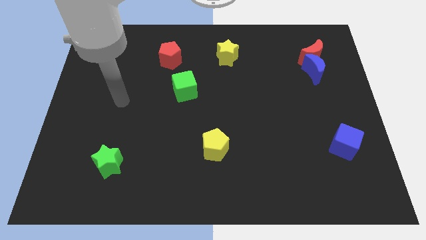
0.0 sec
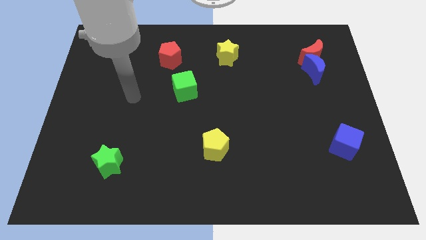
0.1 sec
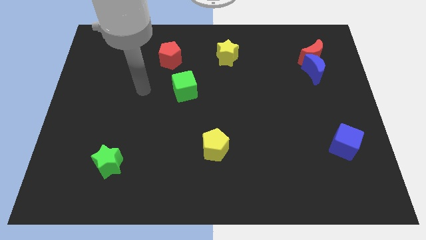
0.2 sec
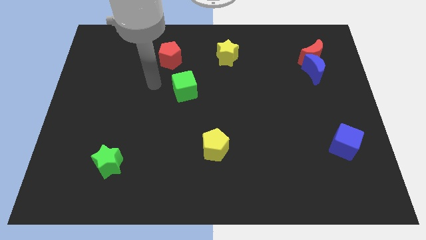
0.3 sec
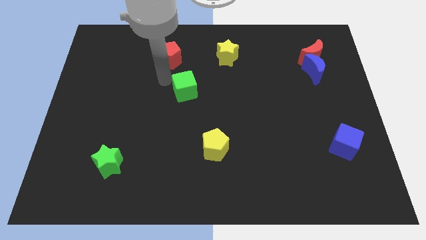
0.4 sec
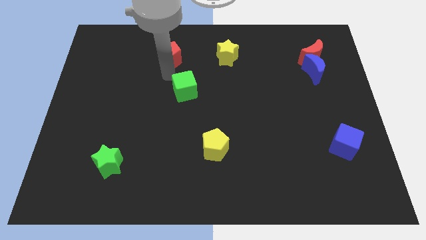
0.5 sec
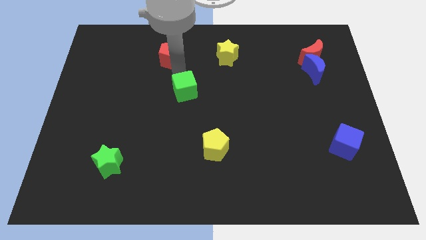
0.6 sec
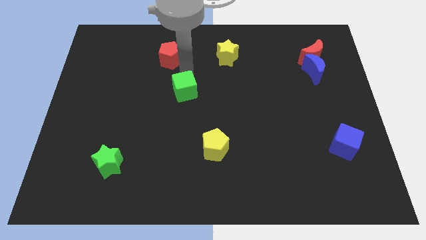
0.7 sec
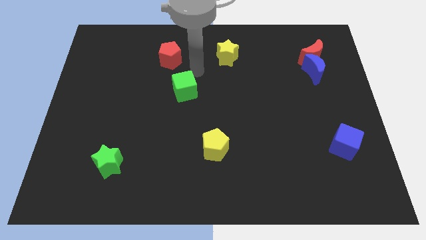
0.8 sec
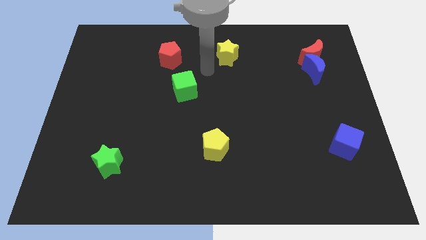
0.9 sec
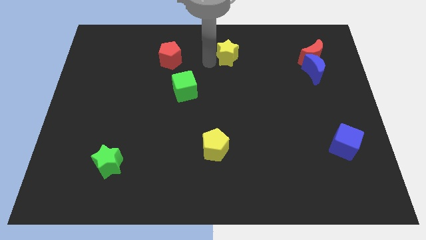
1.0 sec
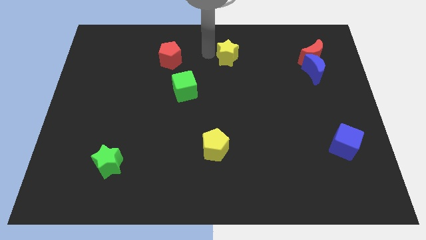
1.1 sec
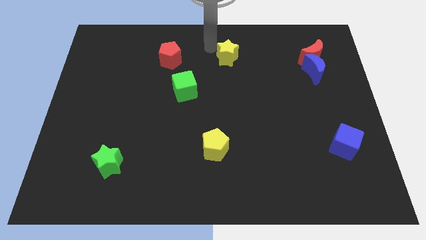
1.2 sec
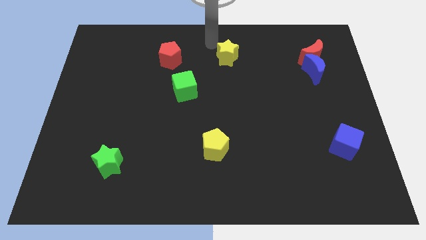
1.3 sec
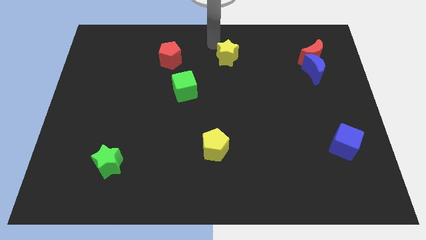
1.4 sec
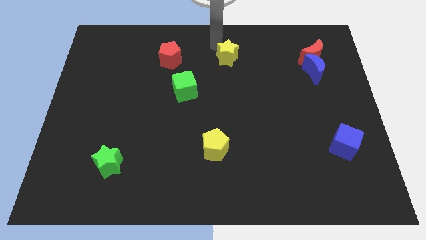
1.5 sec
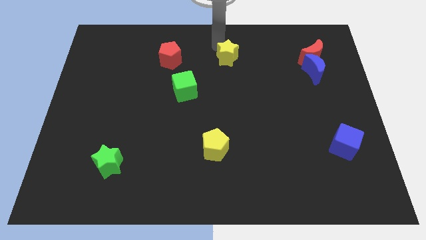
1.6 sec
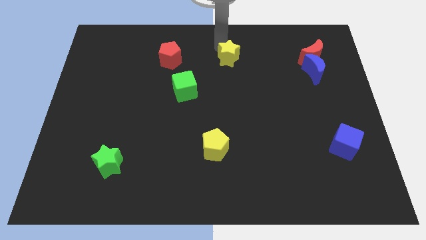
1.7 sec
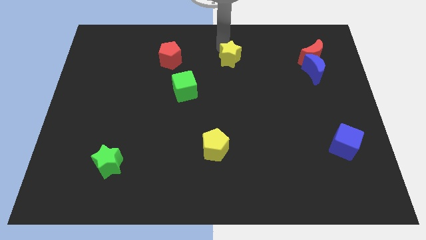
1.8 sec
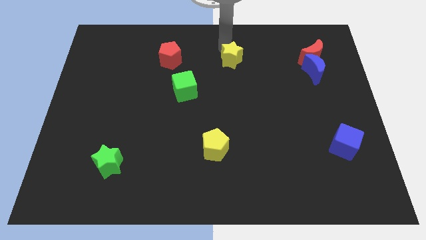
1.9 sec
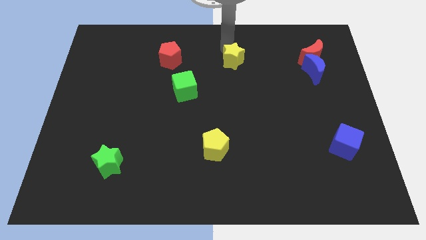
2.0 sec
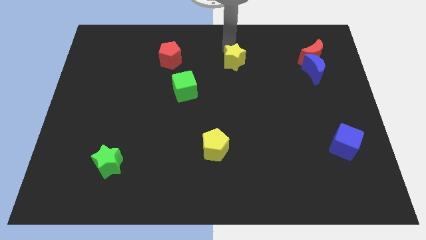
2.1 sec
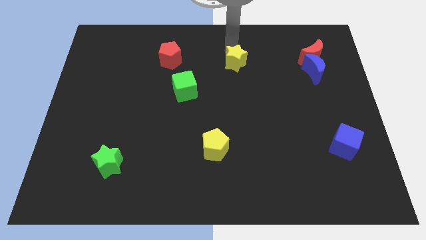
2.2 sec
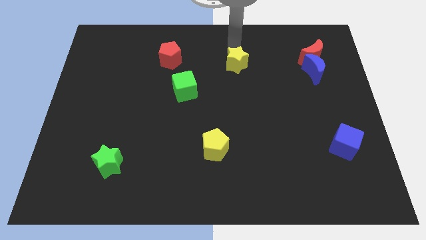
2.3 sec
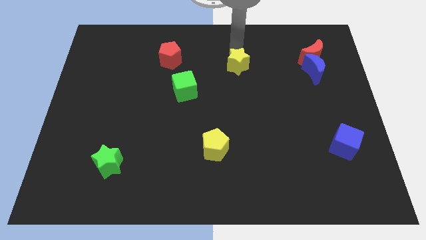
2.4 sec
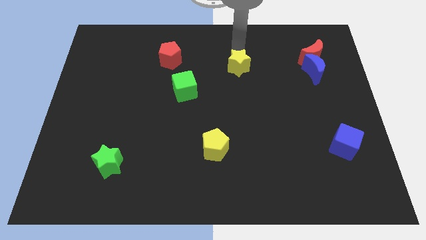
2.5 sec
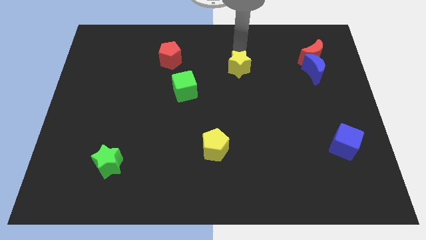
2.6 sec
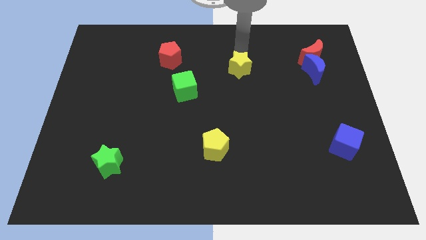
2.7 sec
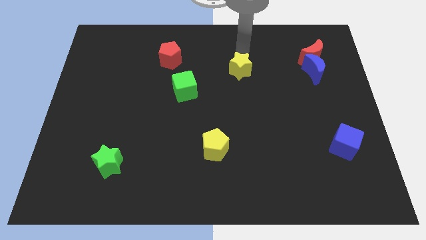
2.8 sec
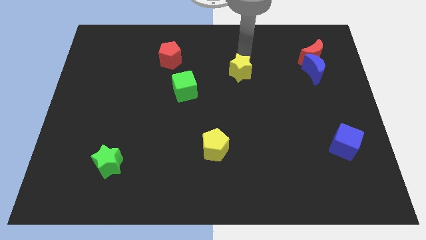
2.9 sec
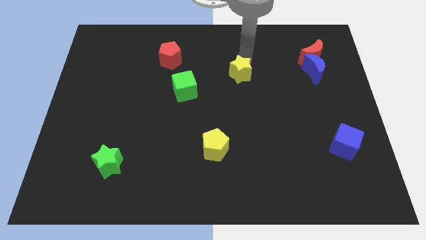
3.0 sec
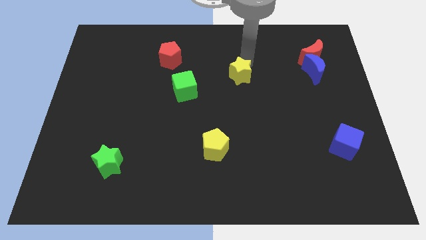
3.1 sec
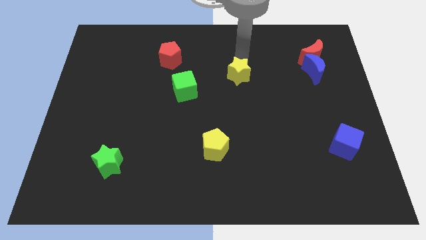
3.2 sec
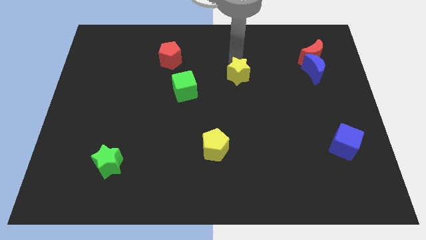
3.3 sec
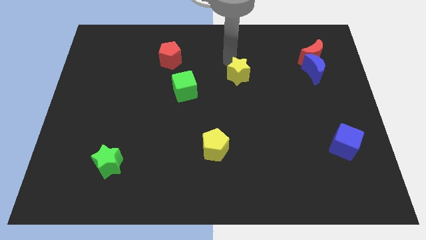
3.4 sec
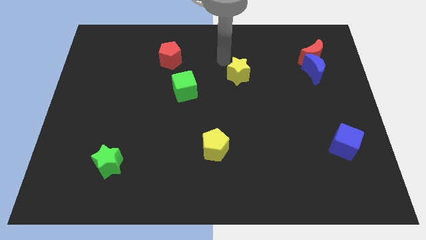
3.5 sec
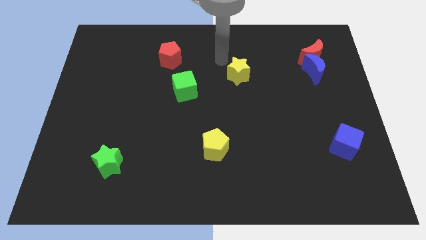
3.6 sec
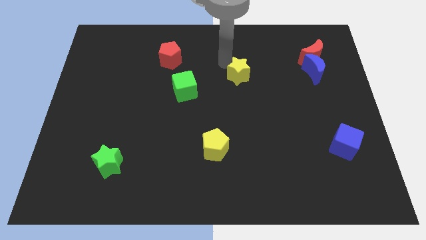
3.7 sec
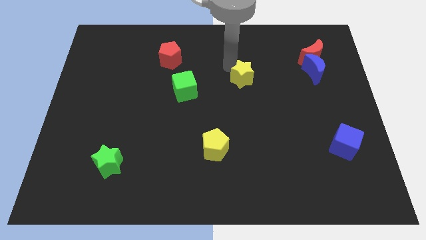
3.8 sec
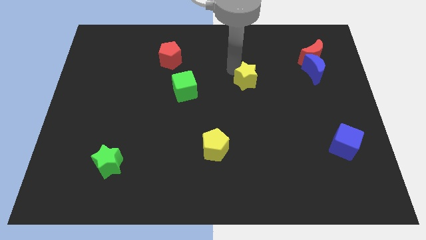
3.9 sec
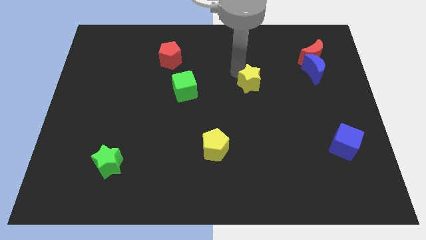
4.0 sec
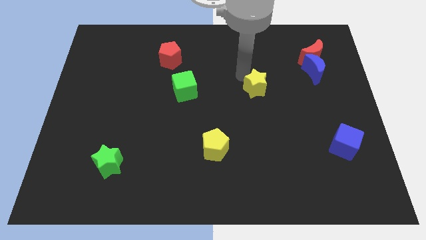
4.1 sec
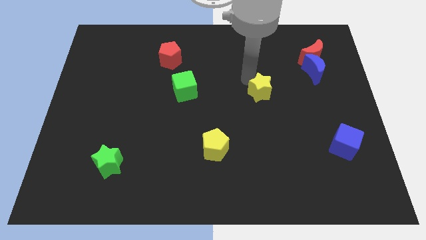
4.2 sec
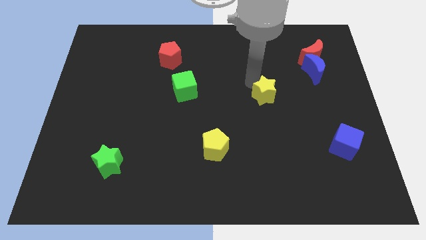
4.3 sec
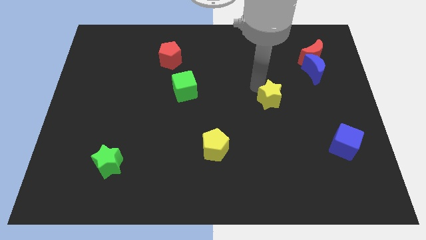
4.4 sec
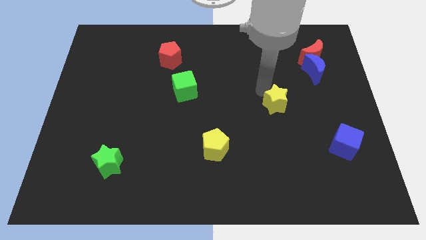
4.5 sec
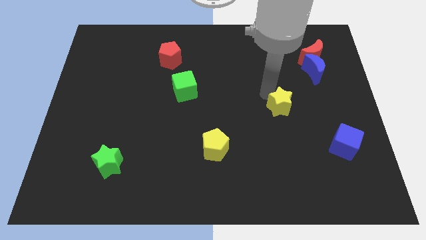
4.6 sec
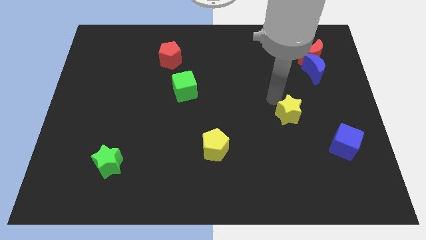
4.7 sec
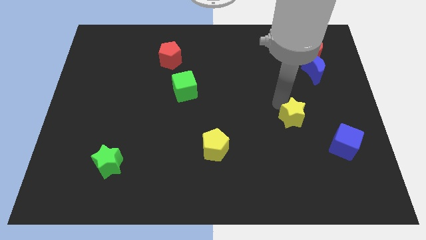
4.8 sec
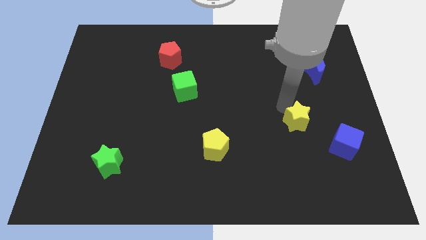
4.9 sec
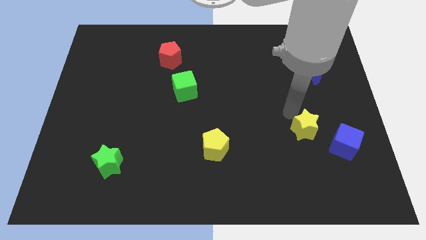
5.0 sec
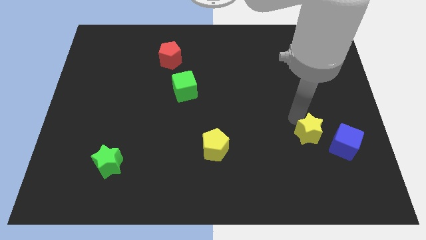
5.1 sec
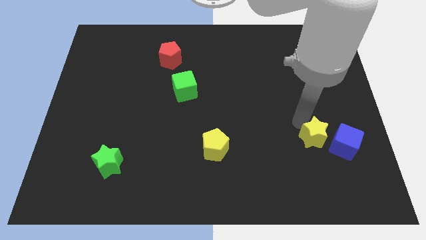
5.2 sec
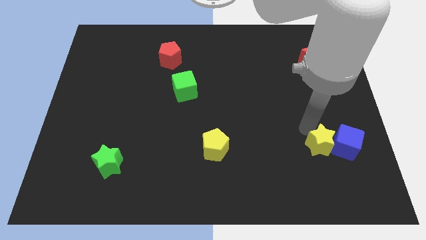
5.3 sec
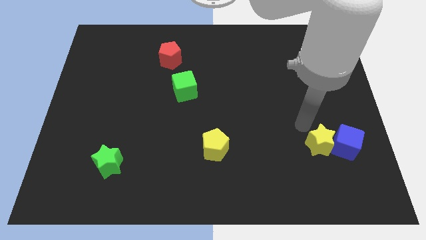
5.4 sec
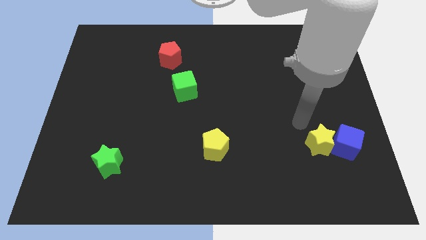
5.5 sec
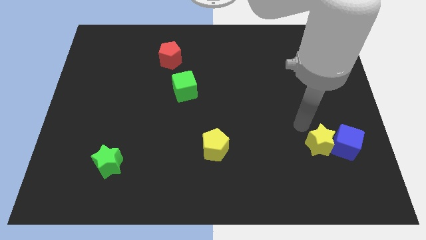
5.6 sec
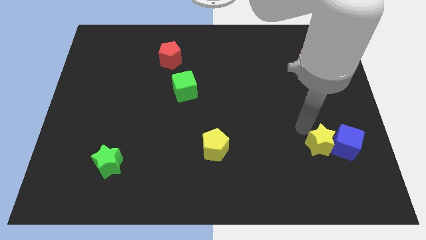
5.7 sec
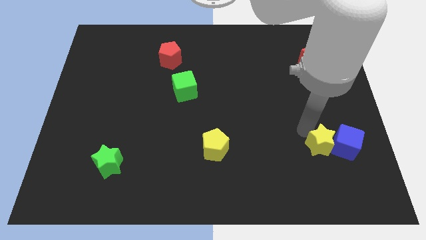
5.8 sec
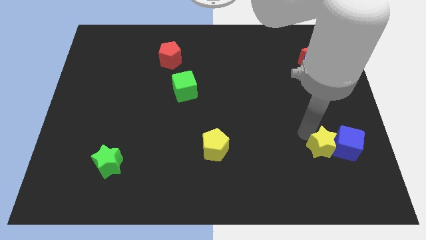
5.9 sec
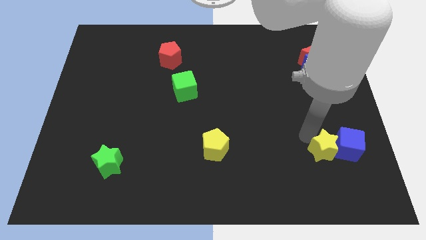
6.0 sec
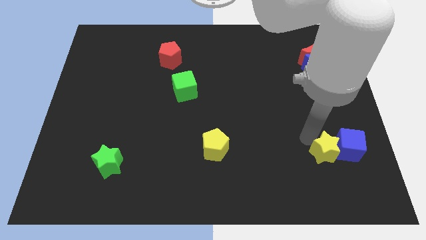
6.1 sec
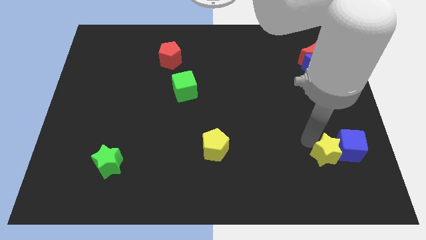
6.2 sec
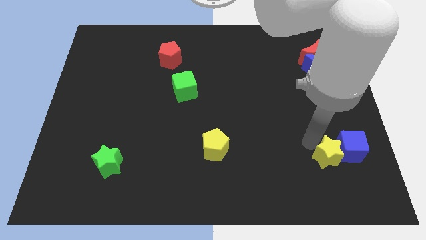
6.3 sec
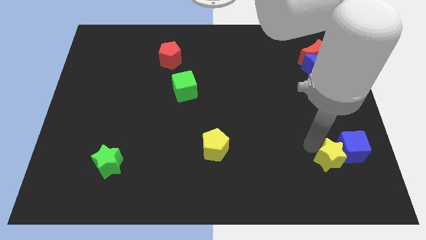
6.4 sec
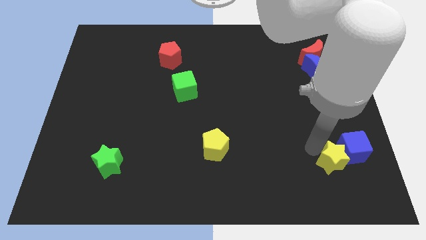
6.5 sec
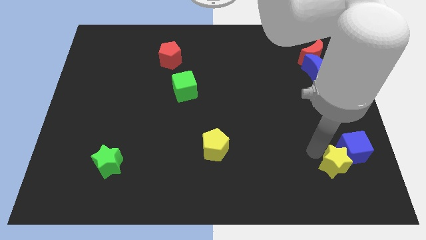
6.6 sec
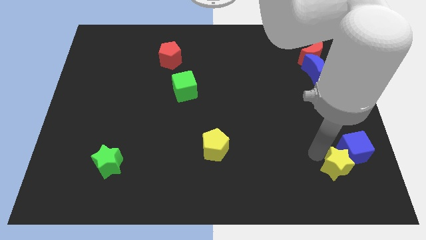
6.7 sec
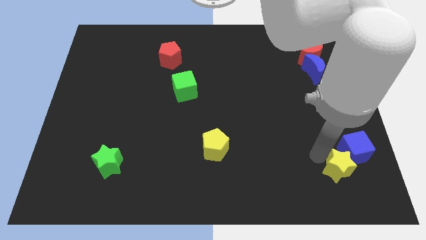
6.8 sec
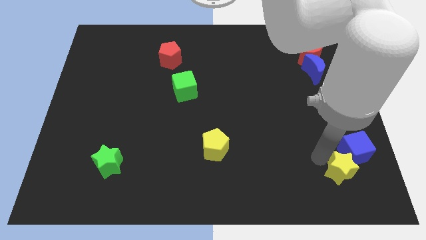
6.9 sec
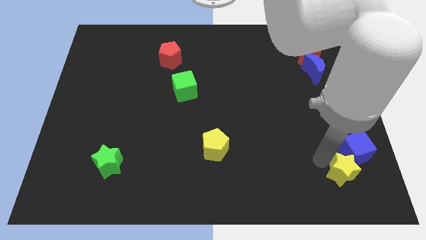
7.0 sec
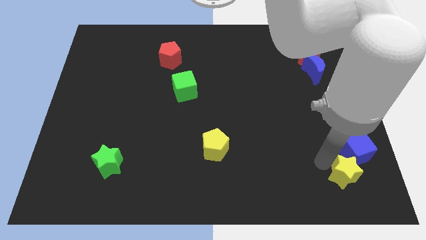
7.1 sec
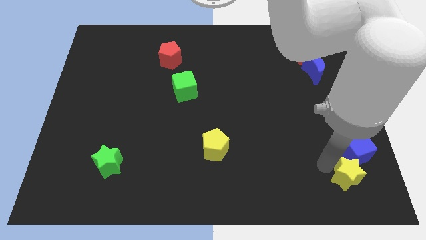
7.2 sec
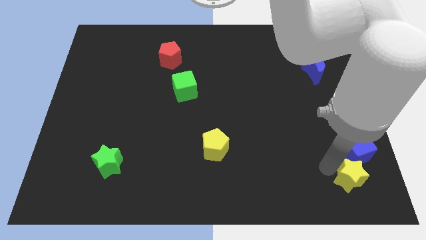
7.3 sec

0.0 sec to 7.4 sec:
push the yellow star to the lower right corner
